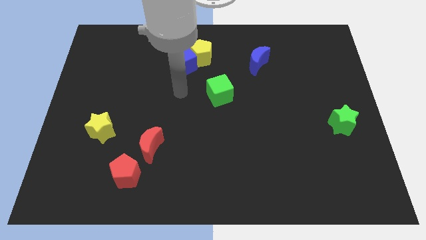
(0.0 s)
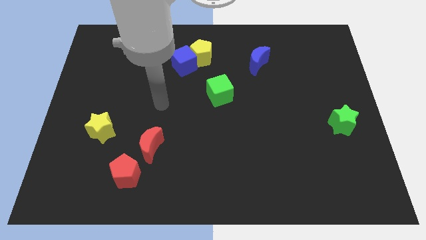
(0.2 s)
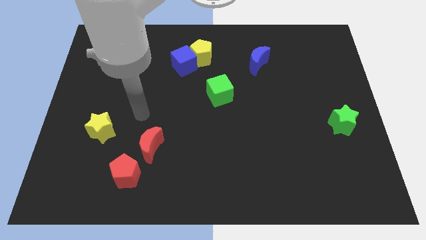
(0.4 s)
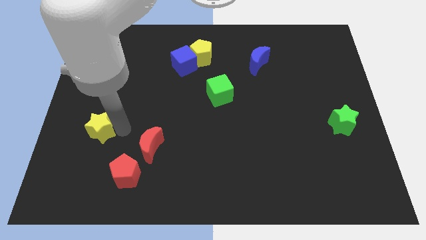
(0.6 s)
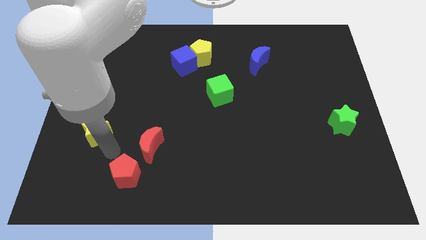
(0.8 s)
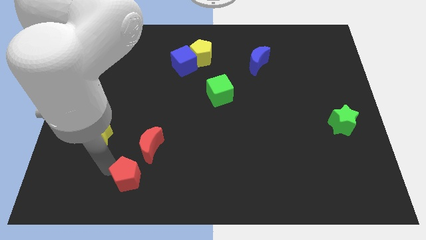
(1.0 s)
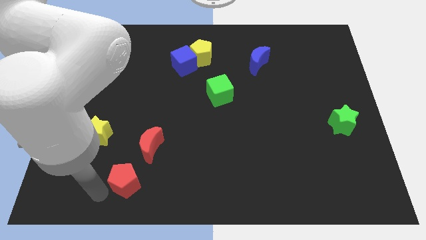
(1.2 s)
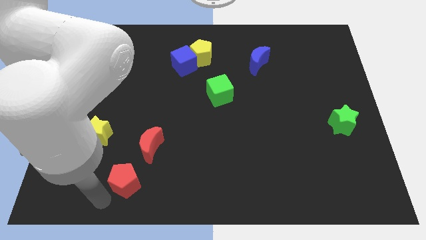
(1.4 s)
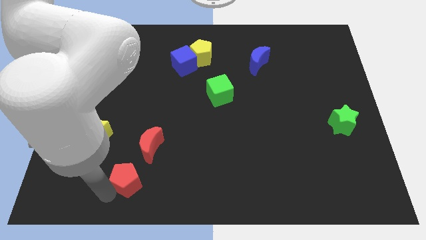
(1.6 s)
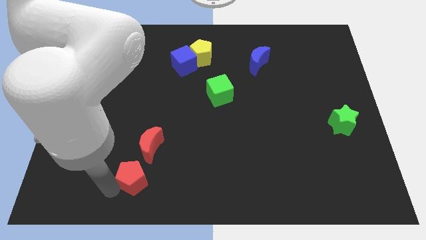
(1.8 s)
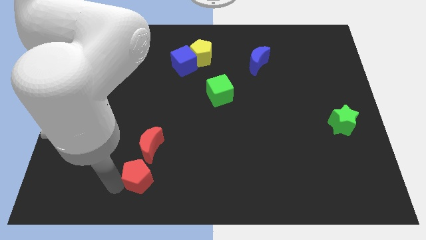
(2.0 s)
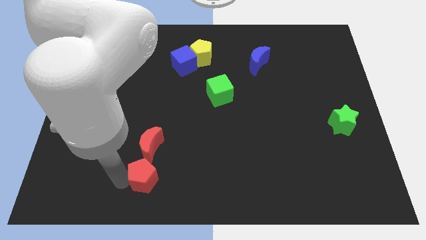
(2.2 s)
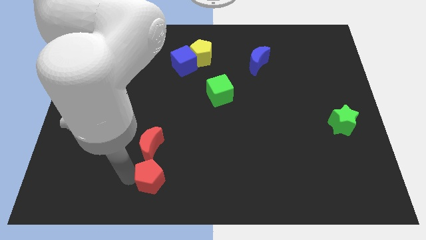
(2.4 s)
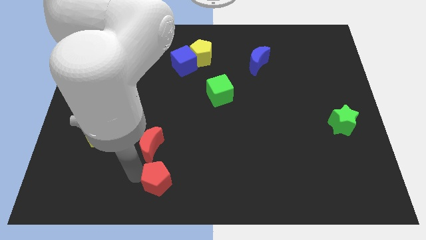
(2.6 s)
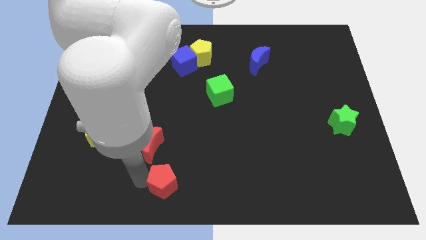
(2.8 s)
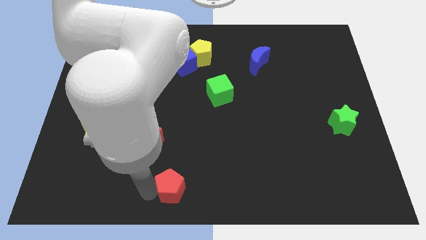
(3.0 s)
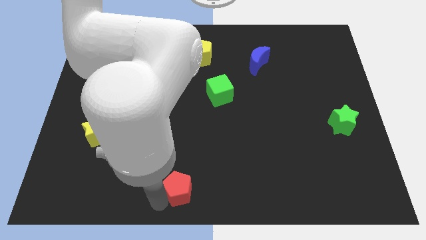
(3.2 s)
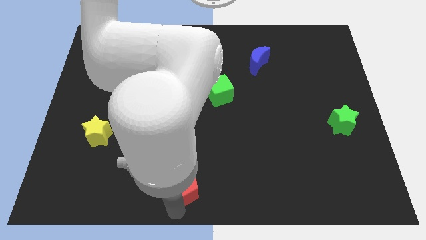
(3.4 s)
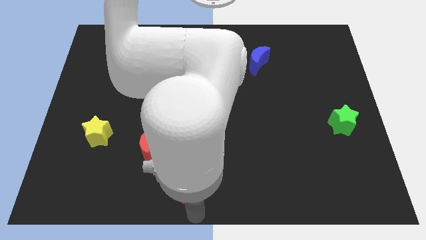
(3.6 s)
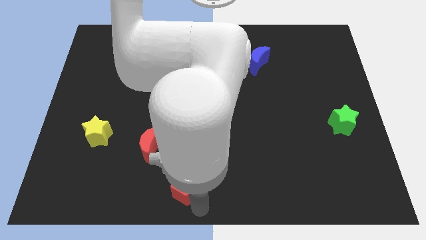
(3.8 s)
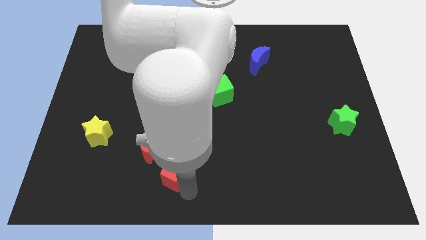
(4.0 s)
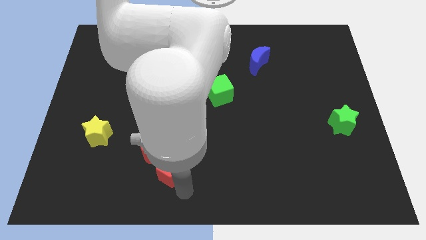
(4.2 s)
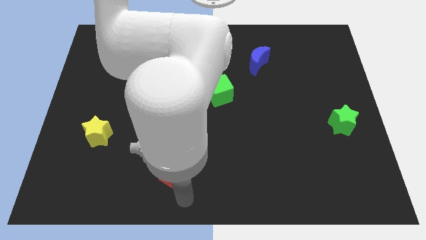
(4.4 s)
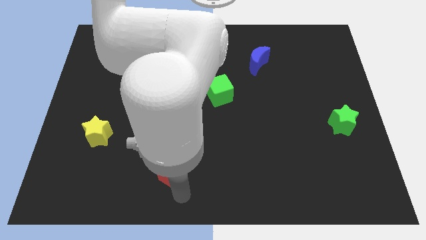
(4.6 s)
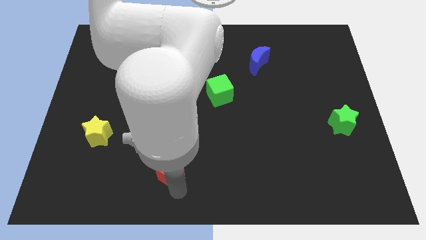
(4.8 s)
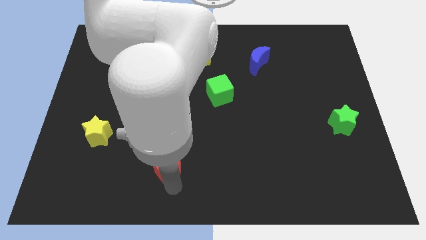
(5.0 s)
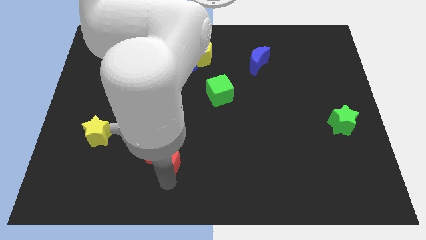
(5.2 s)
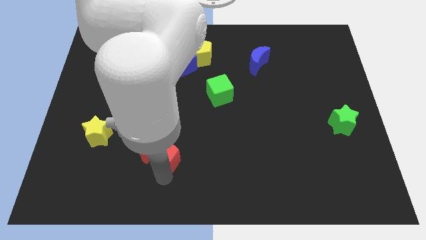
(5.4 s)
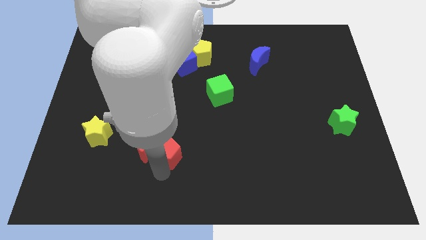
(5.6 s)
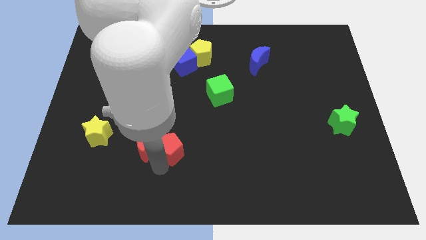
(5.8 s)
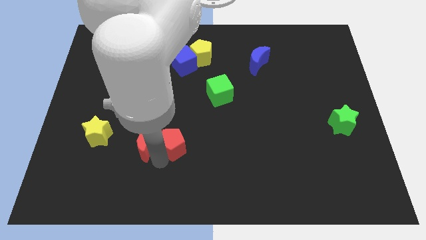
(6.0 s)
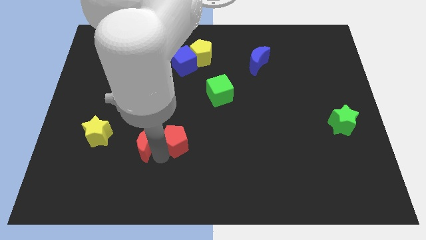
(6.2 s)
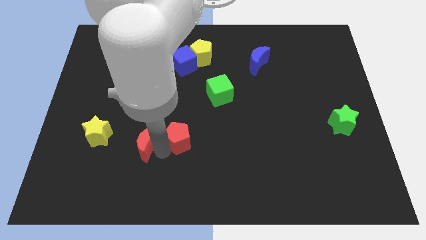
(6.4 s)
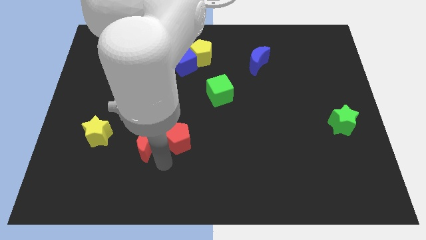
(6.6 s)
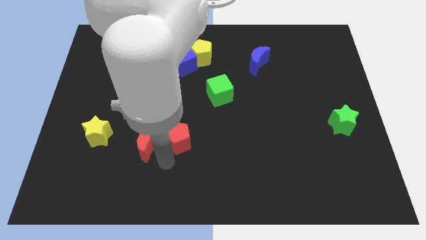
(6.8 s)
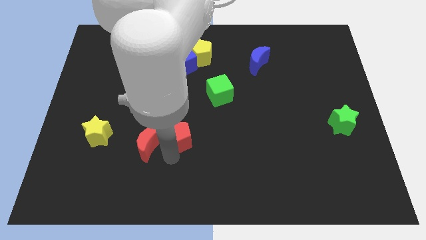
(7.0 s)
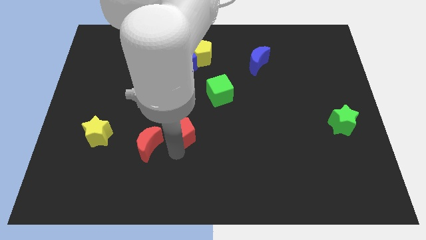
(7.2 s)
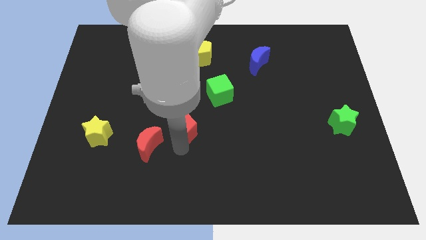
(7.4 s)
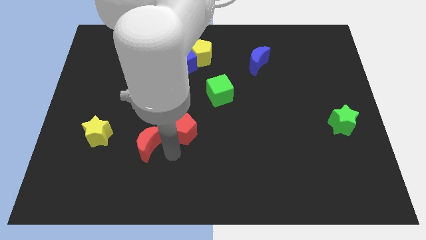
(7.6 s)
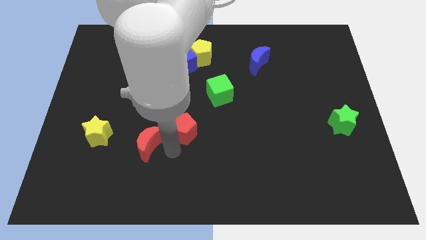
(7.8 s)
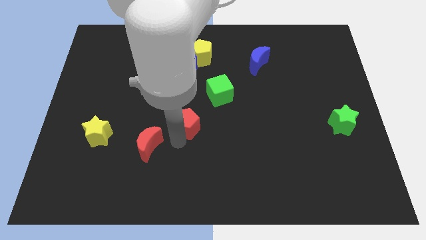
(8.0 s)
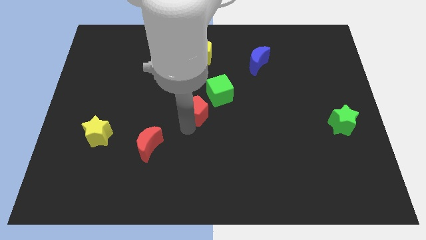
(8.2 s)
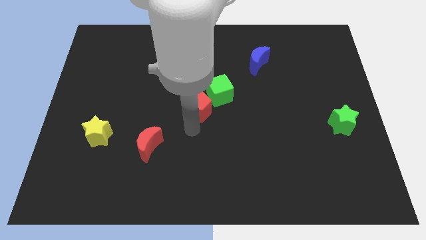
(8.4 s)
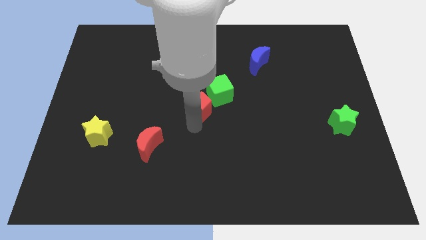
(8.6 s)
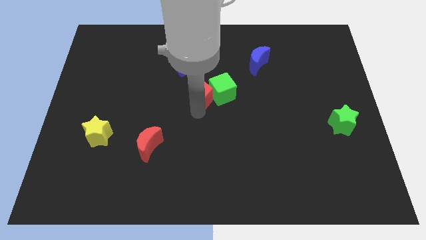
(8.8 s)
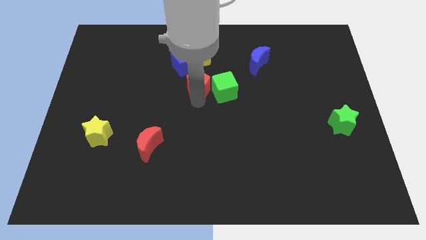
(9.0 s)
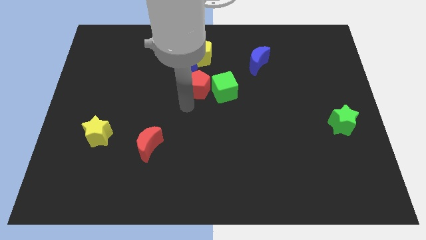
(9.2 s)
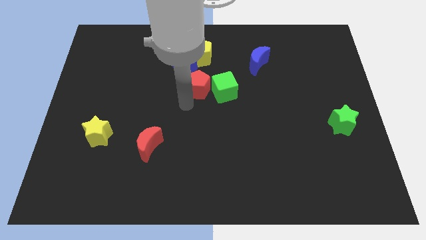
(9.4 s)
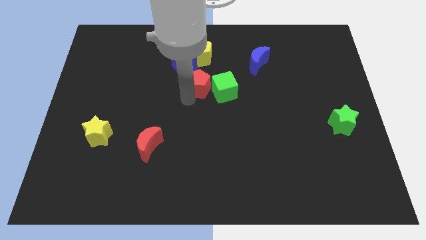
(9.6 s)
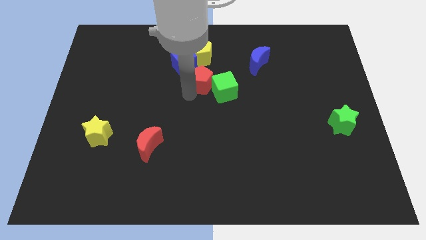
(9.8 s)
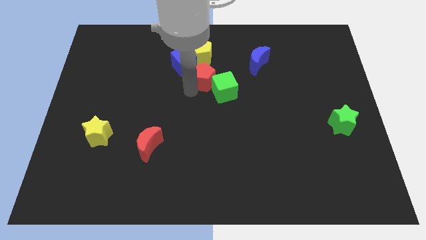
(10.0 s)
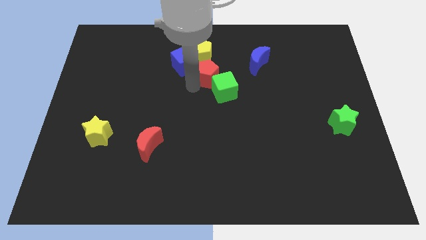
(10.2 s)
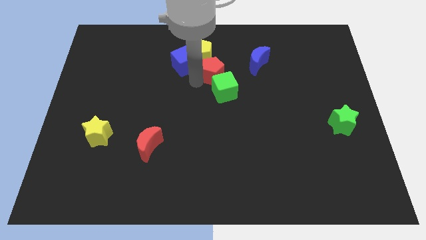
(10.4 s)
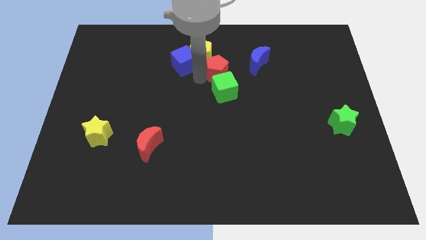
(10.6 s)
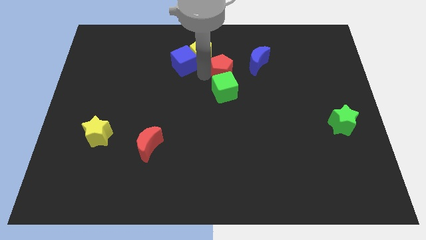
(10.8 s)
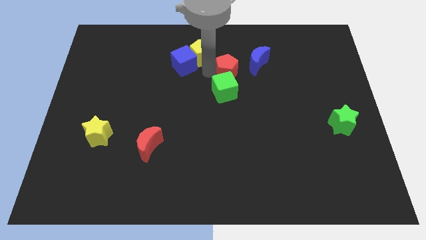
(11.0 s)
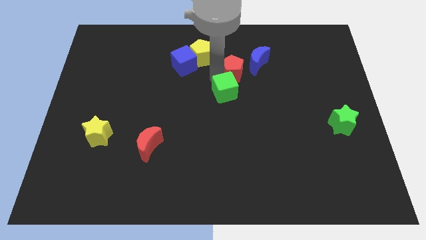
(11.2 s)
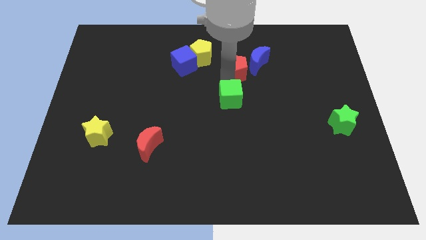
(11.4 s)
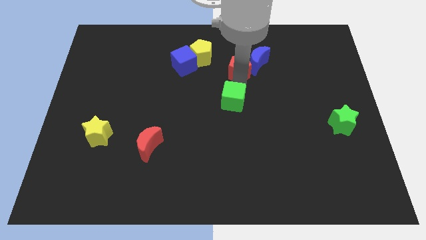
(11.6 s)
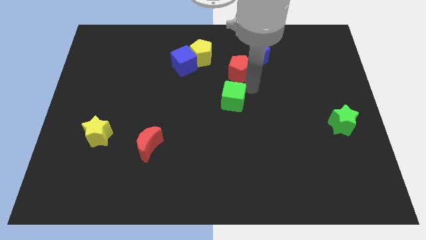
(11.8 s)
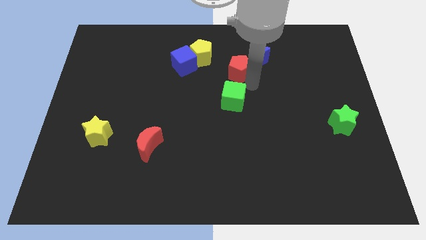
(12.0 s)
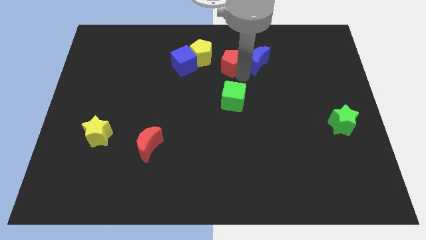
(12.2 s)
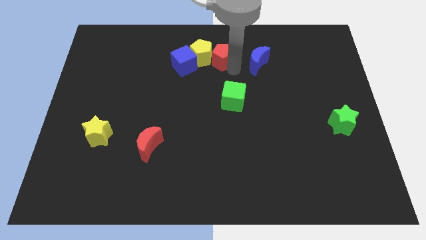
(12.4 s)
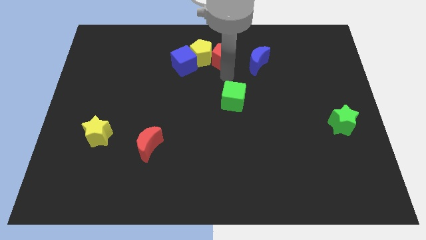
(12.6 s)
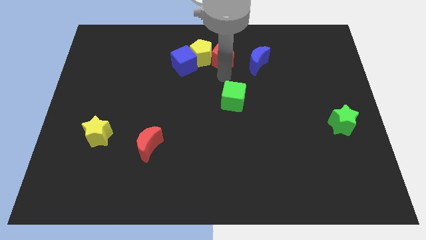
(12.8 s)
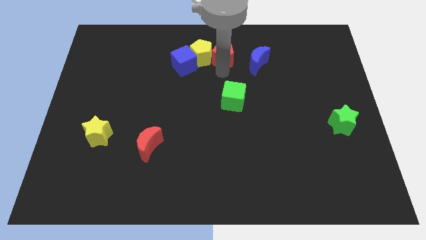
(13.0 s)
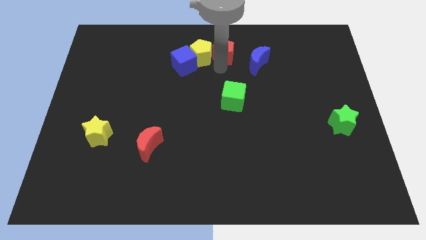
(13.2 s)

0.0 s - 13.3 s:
put the red pentagon to the top side
